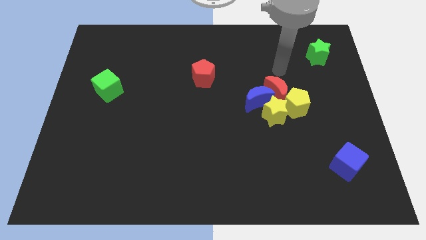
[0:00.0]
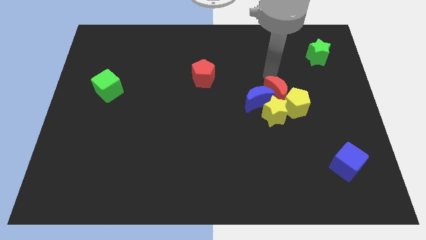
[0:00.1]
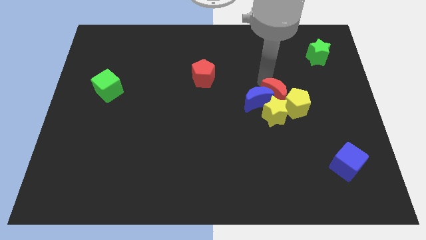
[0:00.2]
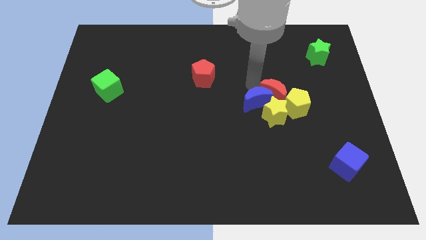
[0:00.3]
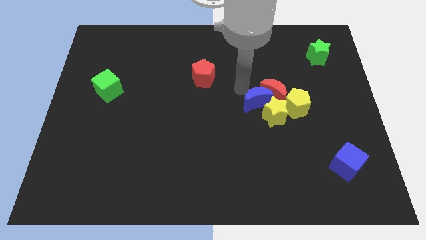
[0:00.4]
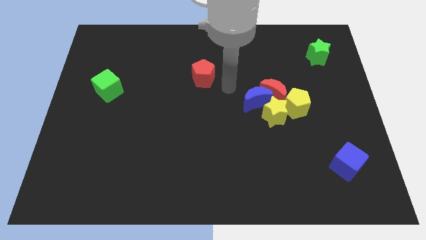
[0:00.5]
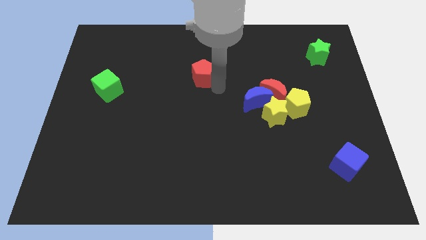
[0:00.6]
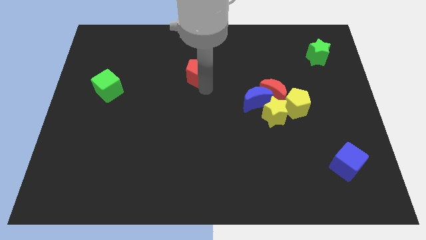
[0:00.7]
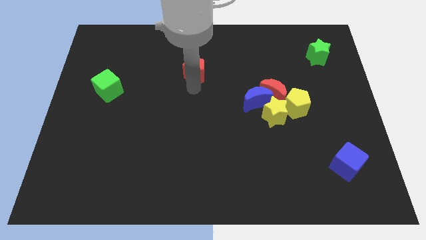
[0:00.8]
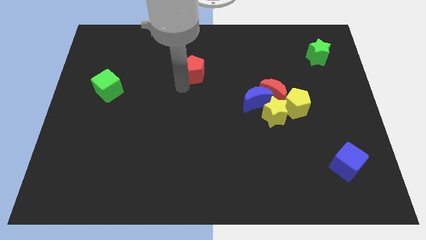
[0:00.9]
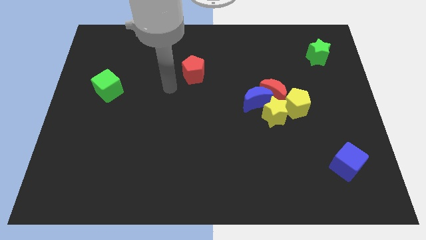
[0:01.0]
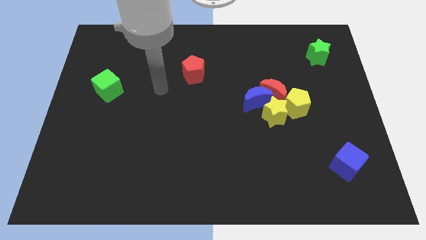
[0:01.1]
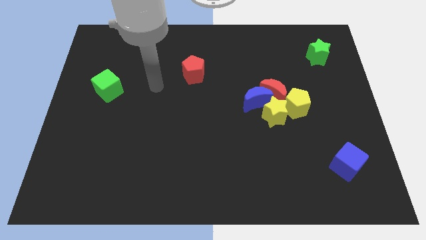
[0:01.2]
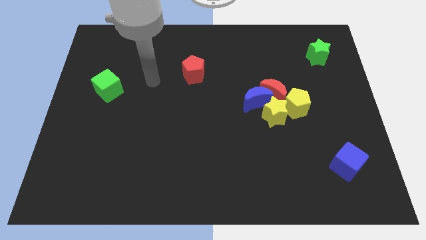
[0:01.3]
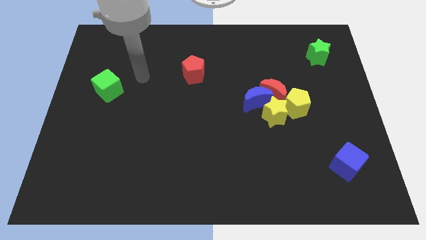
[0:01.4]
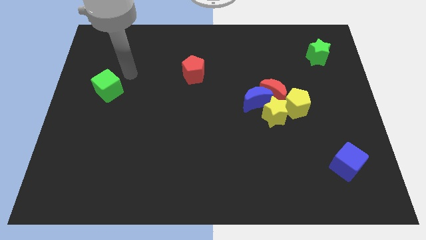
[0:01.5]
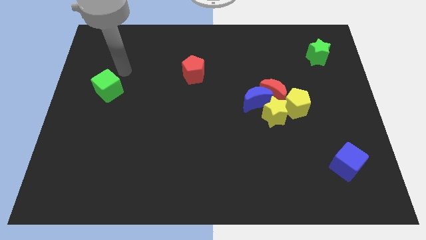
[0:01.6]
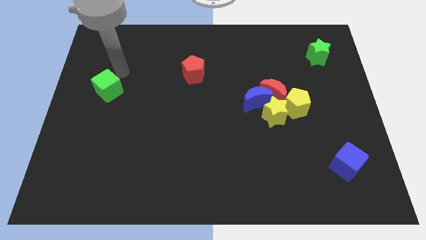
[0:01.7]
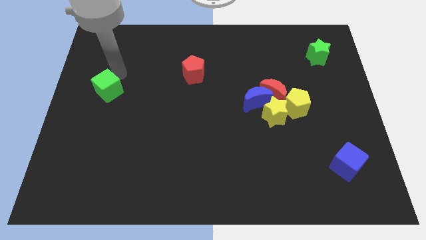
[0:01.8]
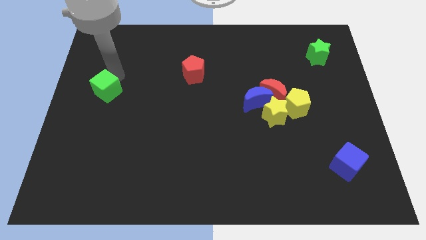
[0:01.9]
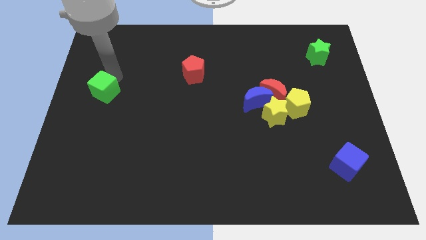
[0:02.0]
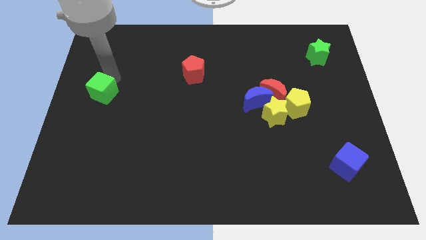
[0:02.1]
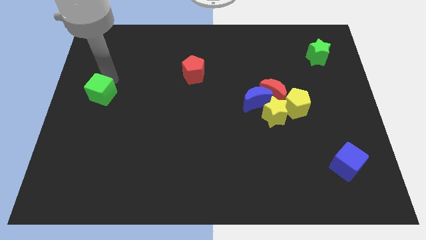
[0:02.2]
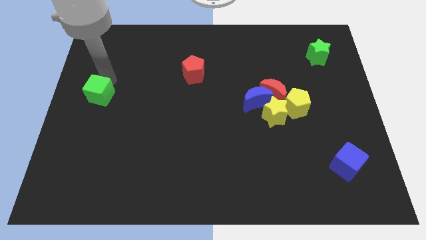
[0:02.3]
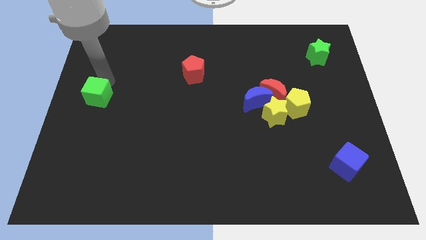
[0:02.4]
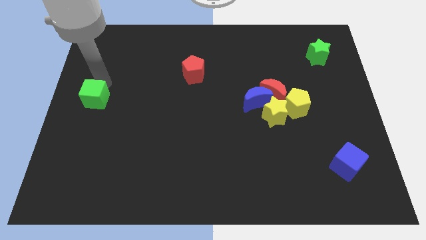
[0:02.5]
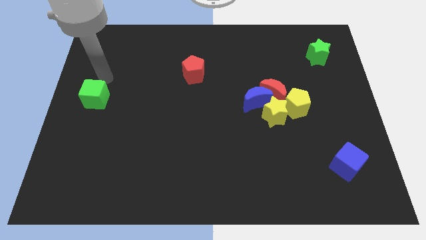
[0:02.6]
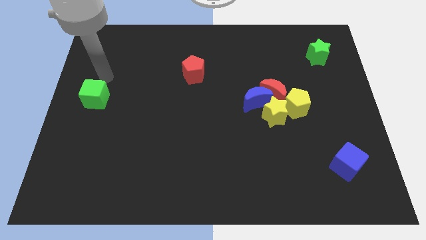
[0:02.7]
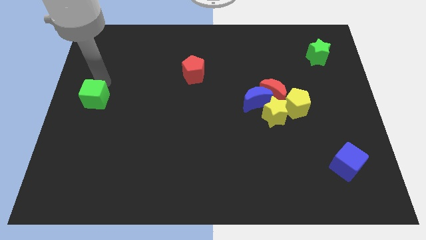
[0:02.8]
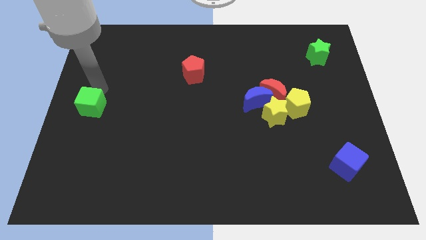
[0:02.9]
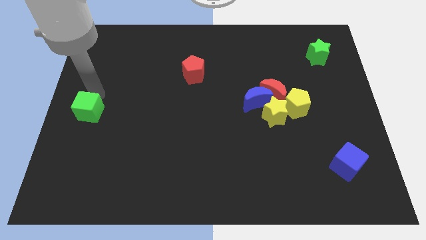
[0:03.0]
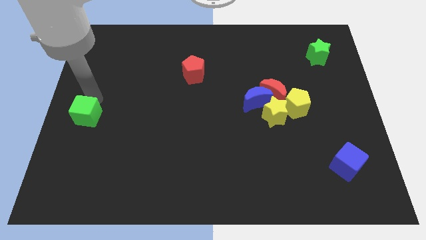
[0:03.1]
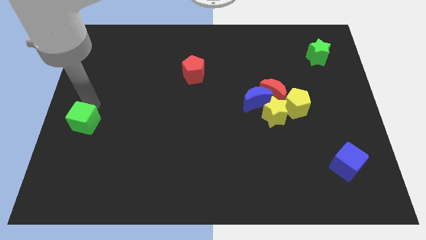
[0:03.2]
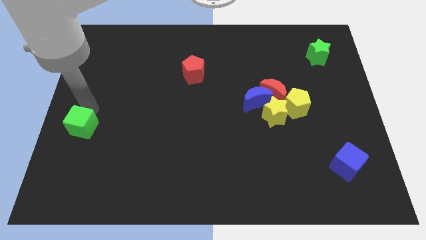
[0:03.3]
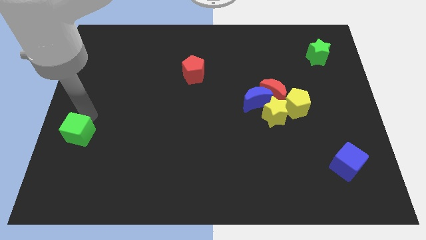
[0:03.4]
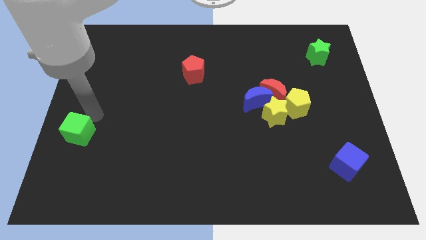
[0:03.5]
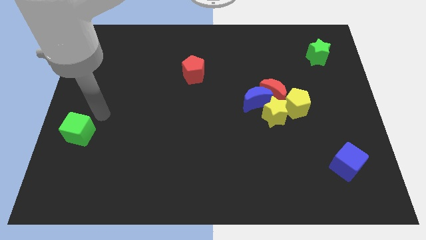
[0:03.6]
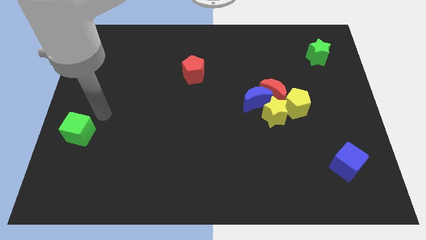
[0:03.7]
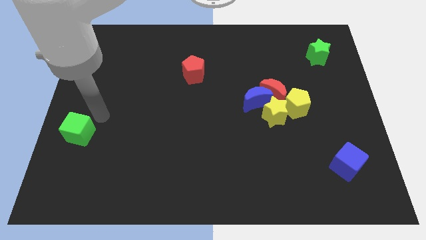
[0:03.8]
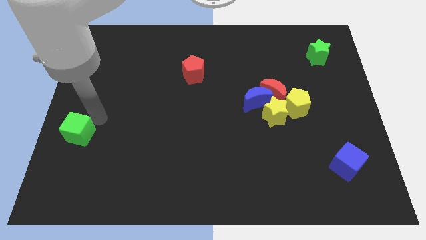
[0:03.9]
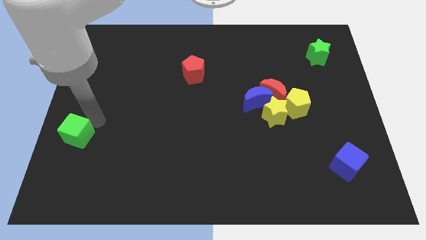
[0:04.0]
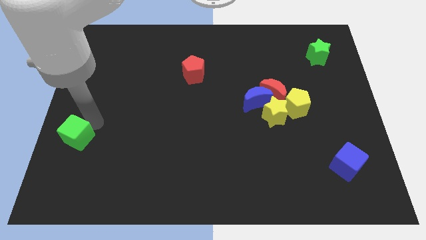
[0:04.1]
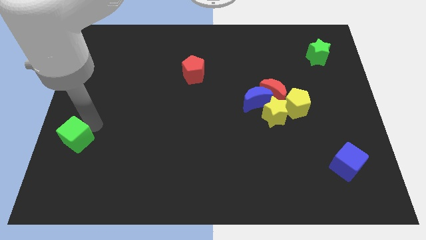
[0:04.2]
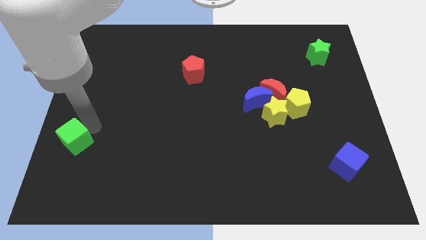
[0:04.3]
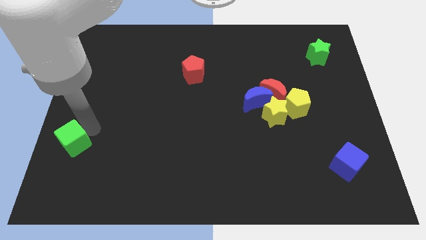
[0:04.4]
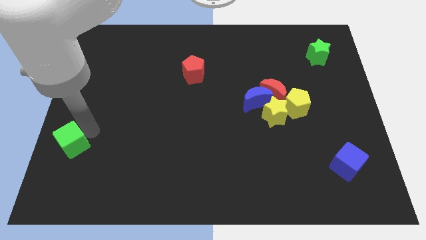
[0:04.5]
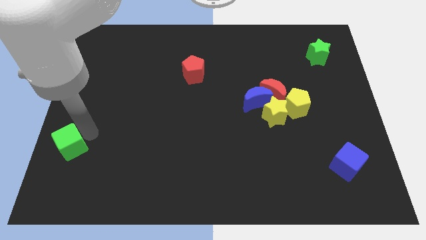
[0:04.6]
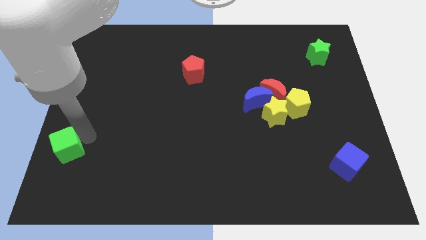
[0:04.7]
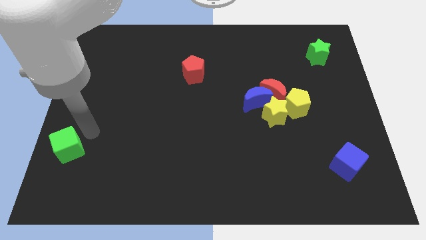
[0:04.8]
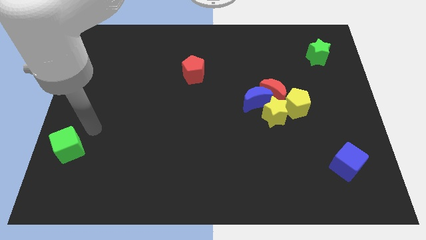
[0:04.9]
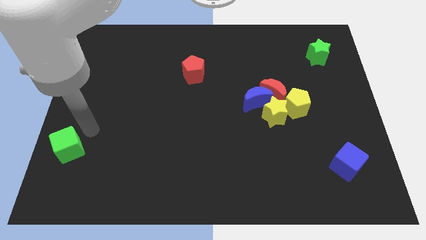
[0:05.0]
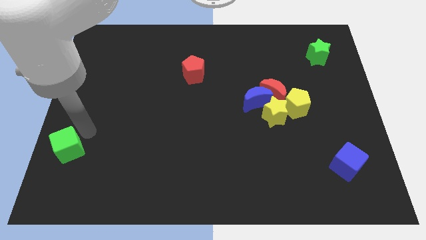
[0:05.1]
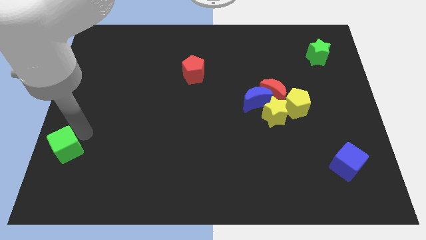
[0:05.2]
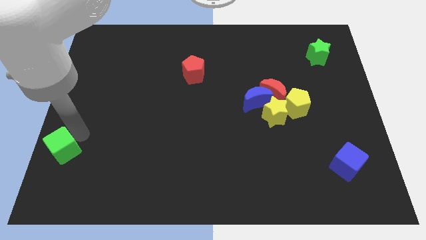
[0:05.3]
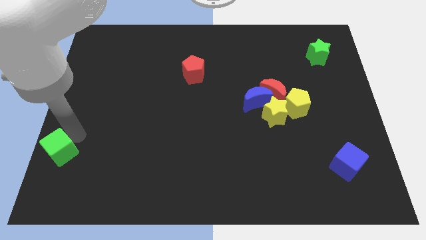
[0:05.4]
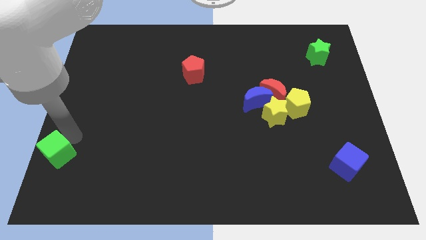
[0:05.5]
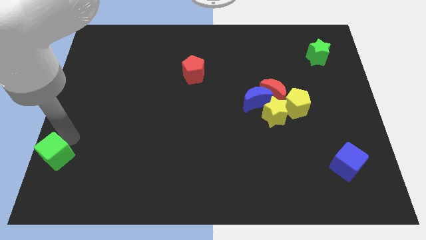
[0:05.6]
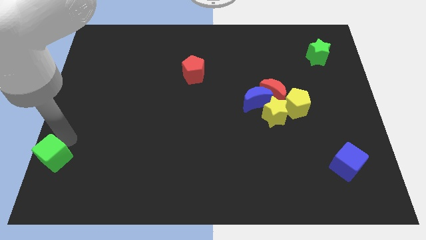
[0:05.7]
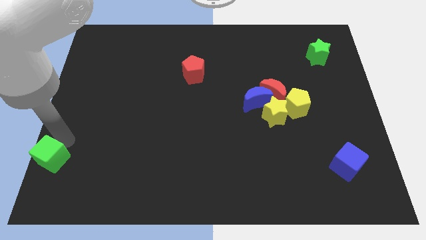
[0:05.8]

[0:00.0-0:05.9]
slide the green cube to the bottom left

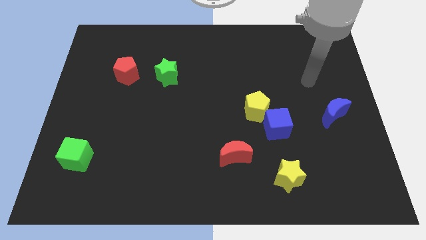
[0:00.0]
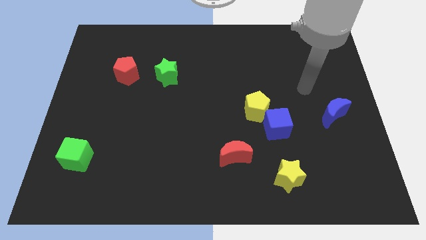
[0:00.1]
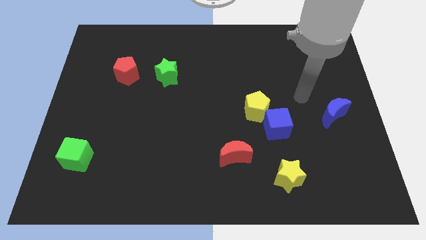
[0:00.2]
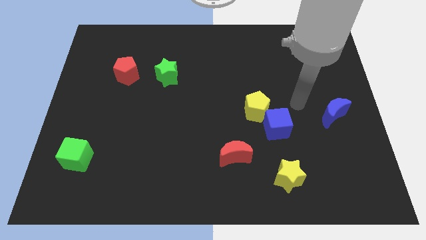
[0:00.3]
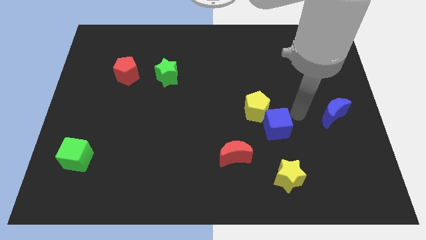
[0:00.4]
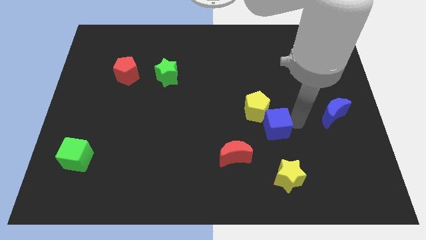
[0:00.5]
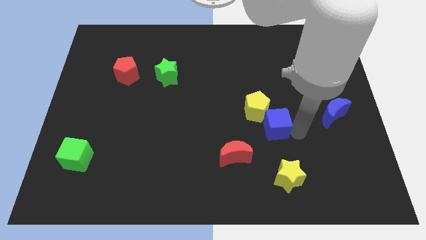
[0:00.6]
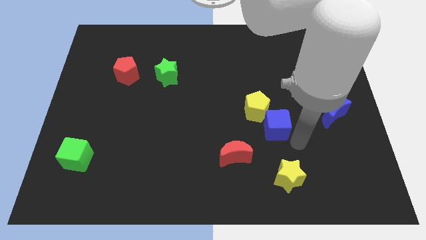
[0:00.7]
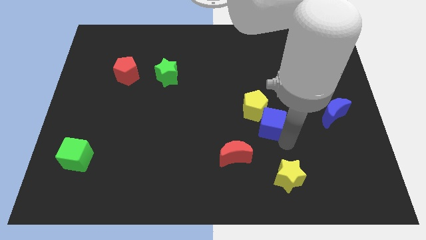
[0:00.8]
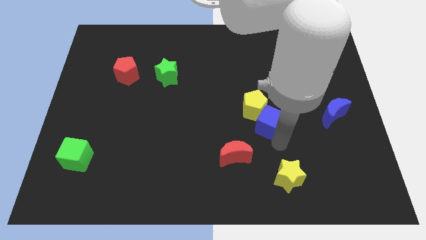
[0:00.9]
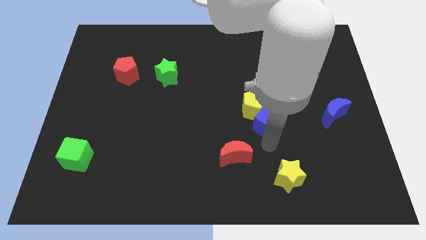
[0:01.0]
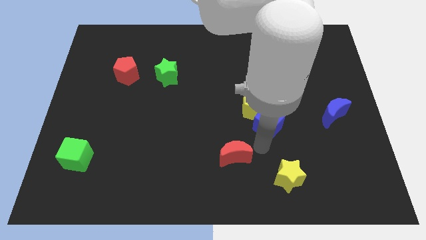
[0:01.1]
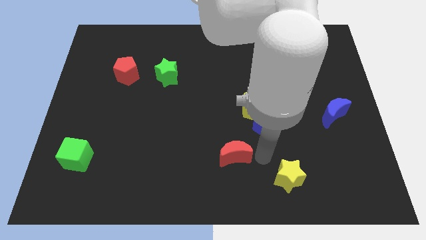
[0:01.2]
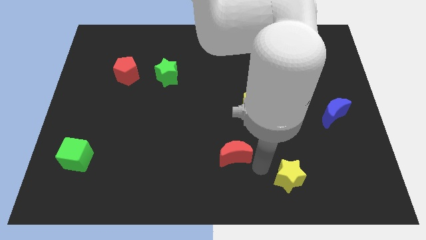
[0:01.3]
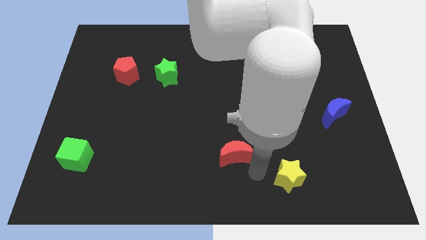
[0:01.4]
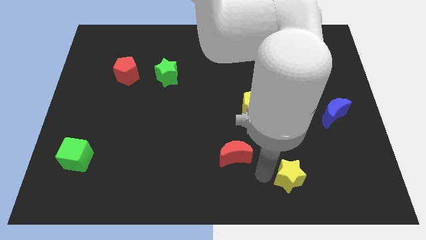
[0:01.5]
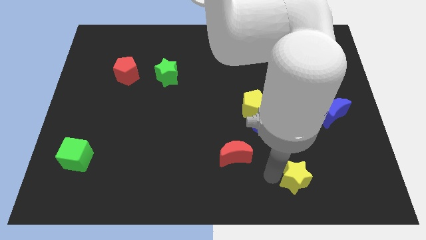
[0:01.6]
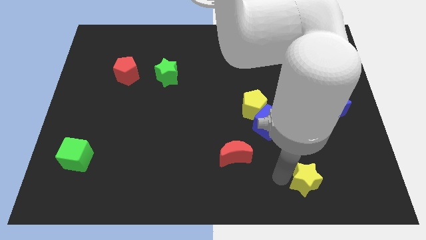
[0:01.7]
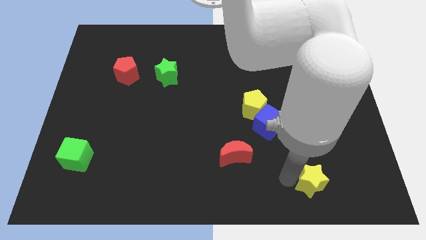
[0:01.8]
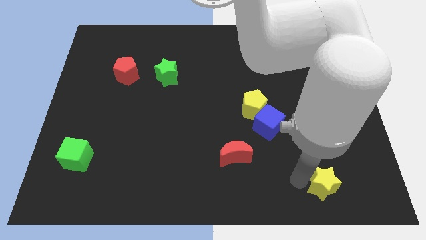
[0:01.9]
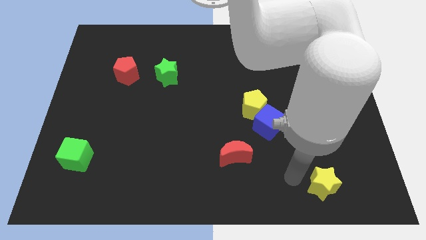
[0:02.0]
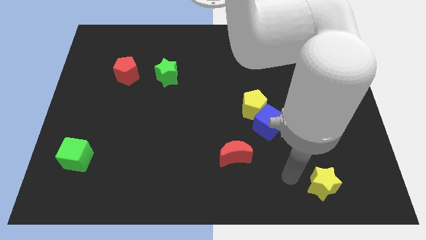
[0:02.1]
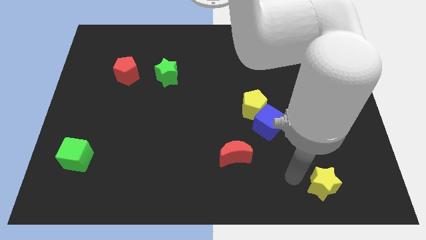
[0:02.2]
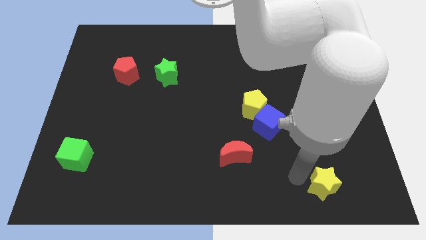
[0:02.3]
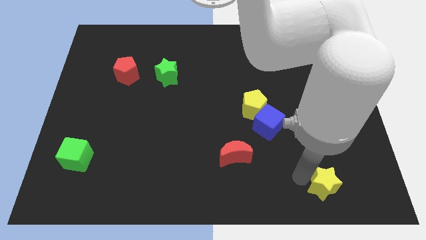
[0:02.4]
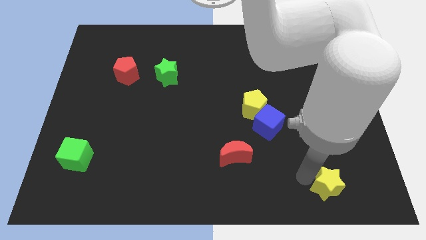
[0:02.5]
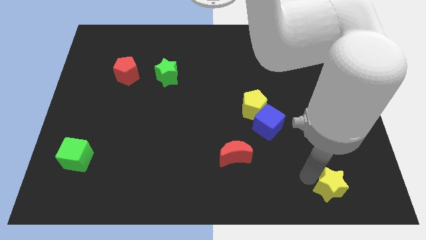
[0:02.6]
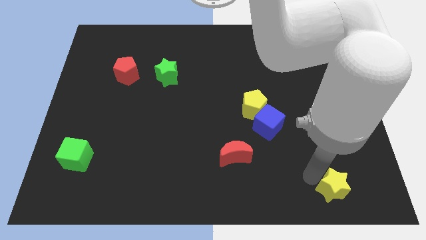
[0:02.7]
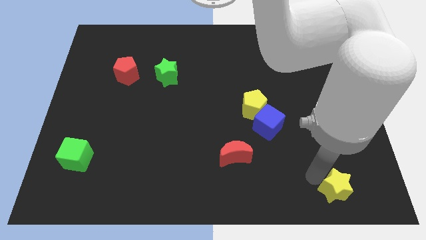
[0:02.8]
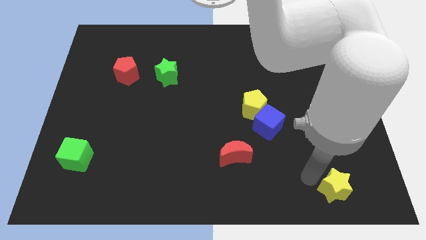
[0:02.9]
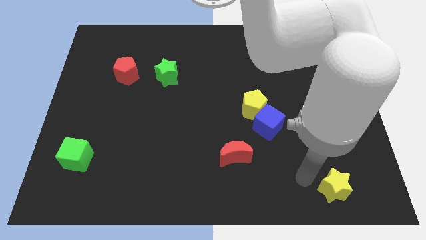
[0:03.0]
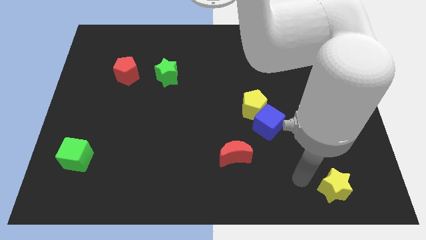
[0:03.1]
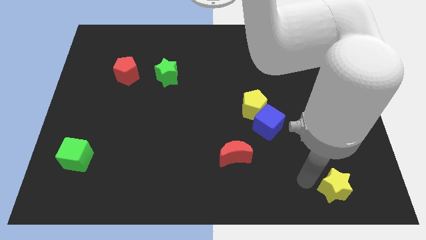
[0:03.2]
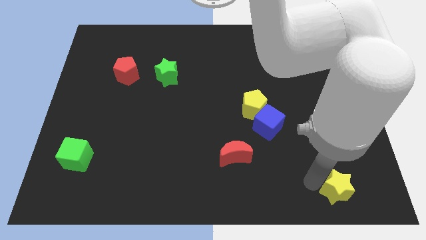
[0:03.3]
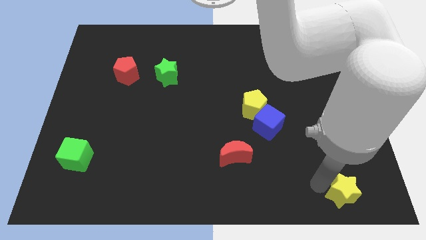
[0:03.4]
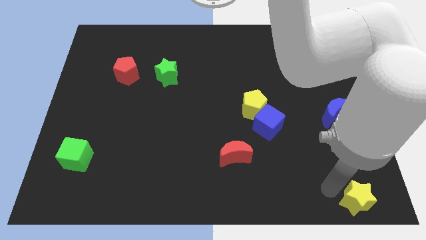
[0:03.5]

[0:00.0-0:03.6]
put the yellow star to the lower right corner
